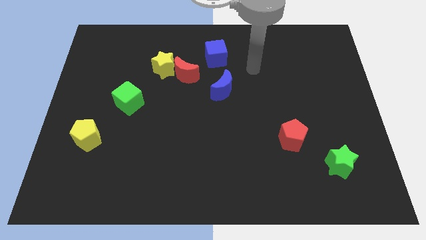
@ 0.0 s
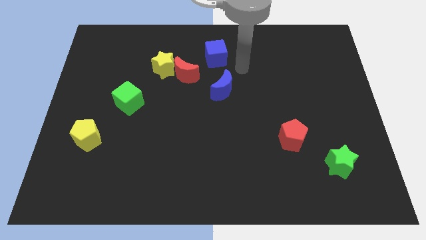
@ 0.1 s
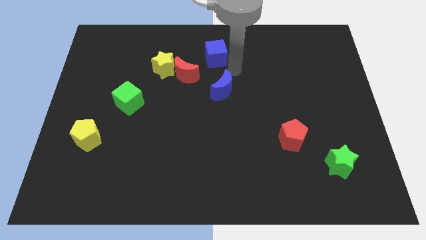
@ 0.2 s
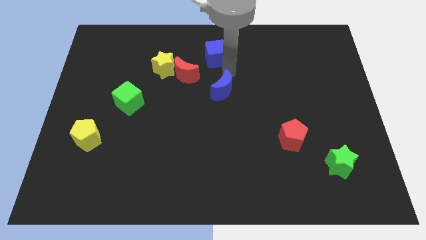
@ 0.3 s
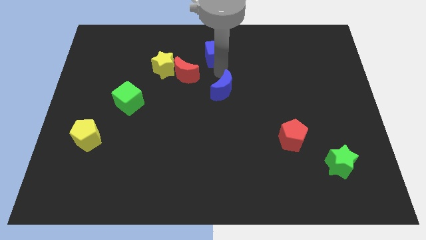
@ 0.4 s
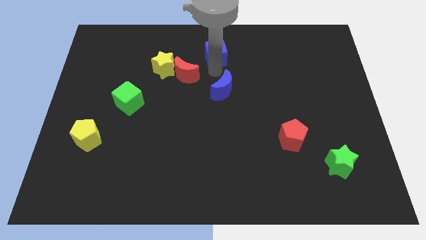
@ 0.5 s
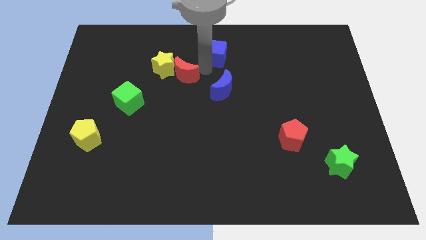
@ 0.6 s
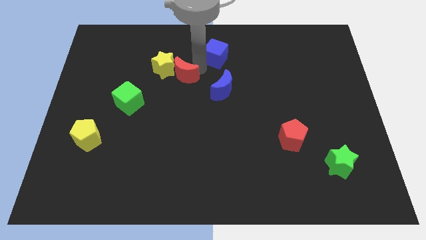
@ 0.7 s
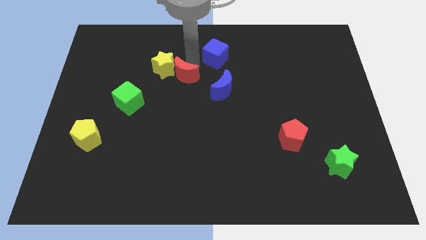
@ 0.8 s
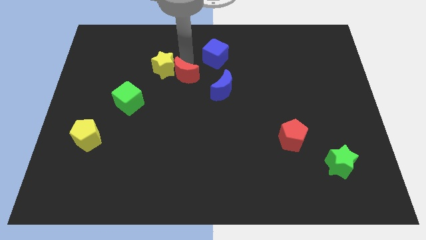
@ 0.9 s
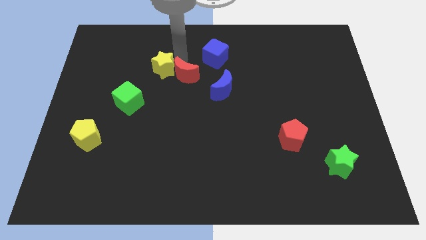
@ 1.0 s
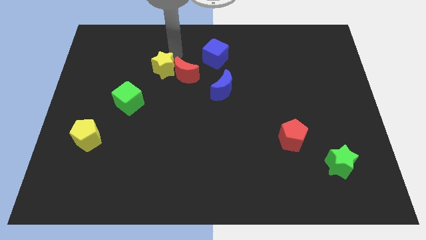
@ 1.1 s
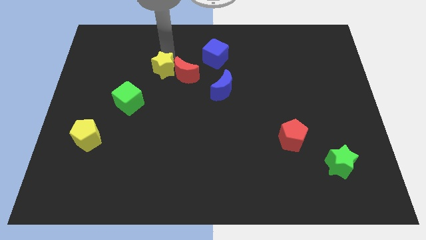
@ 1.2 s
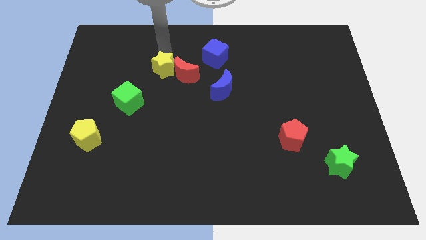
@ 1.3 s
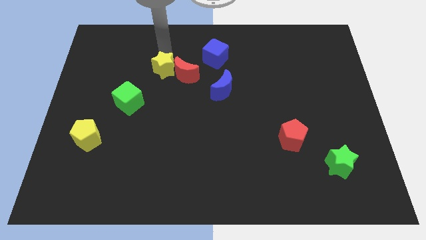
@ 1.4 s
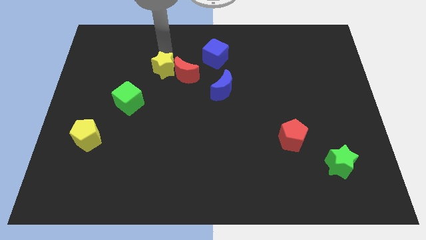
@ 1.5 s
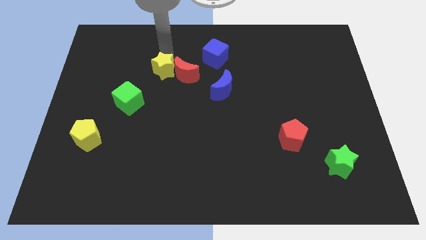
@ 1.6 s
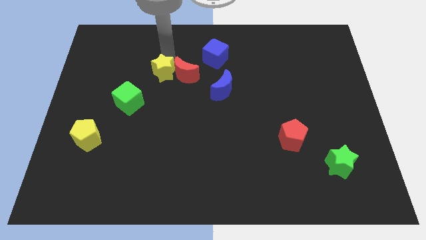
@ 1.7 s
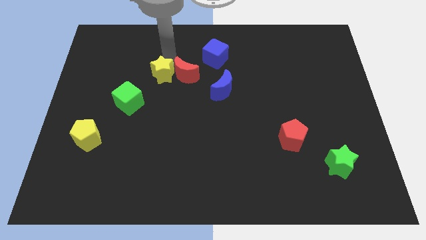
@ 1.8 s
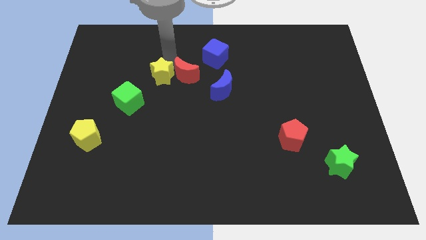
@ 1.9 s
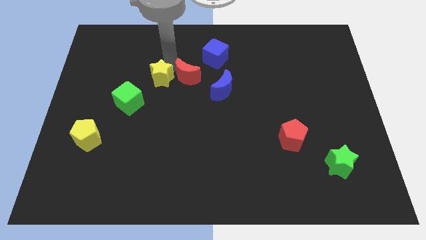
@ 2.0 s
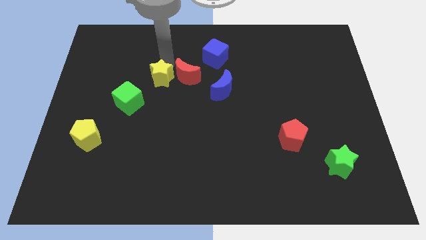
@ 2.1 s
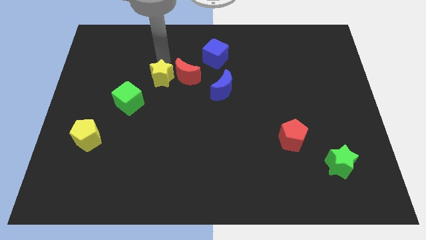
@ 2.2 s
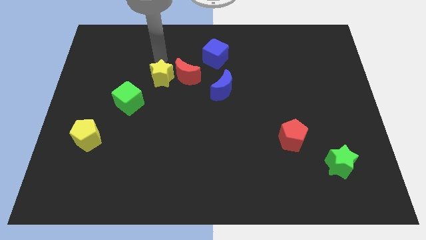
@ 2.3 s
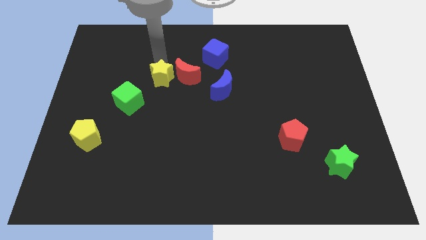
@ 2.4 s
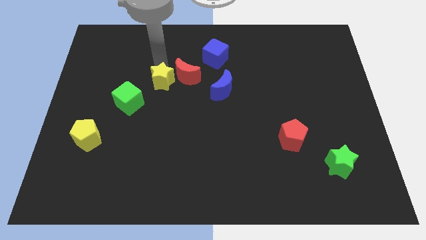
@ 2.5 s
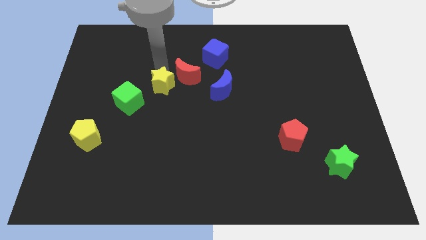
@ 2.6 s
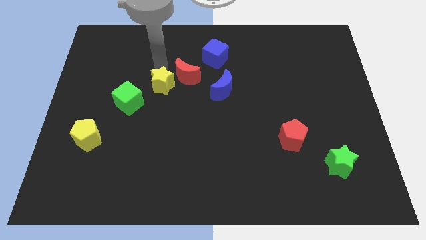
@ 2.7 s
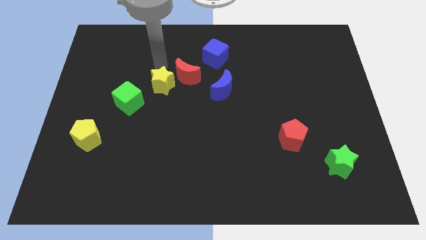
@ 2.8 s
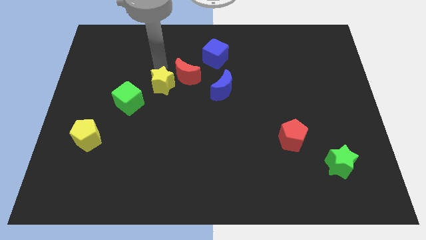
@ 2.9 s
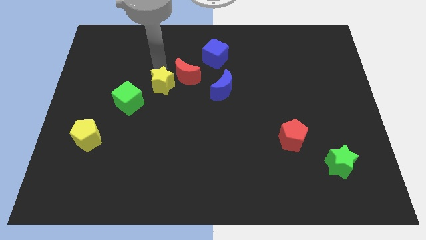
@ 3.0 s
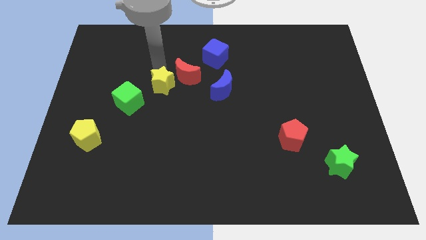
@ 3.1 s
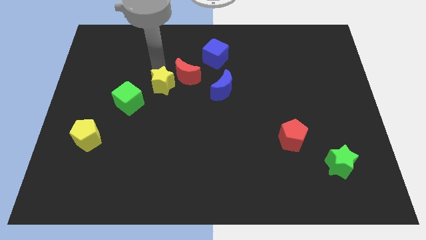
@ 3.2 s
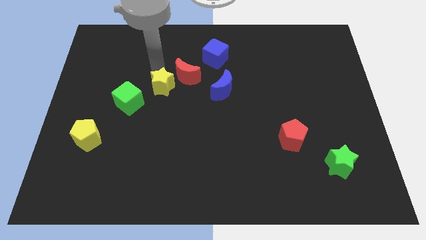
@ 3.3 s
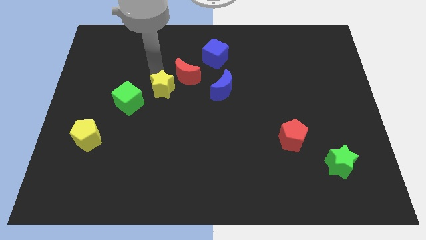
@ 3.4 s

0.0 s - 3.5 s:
slide the yellow star down a little

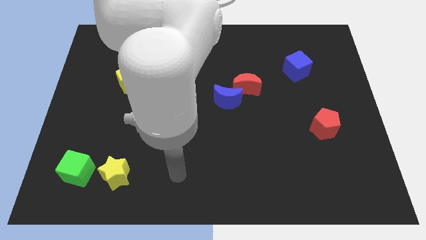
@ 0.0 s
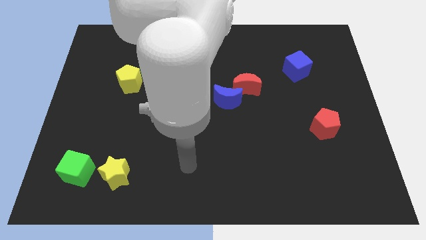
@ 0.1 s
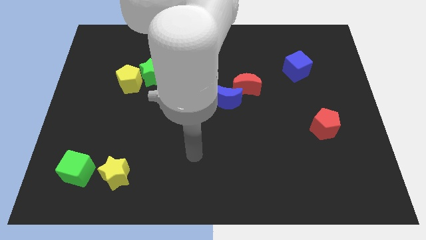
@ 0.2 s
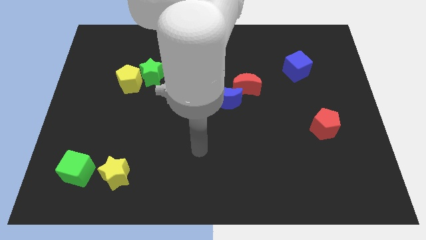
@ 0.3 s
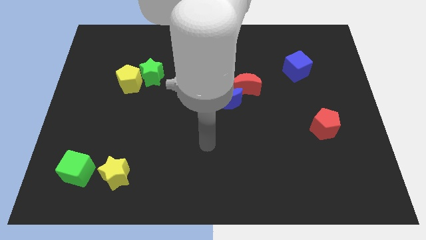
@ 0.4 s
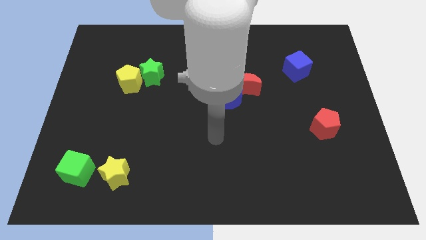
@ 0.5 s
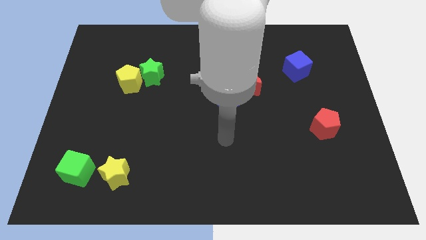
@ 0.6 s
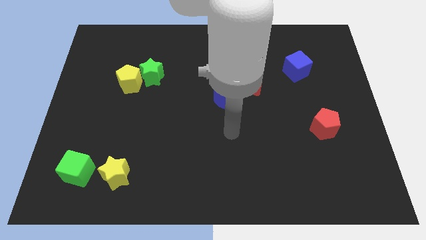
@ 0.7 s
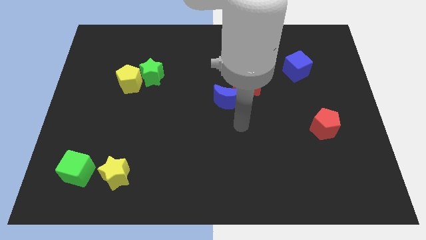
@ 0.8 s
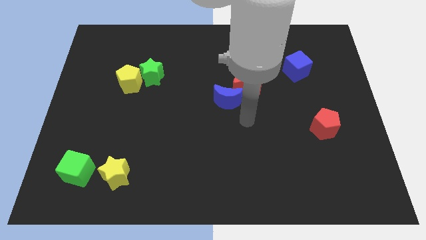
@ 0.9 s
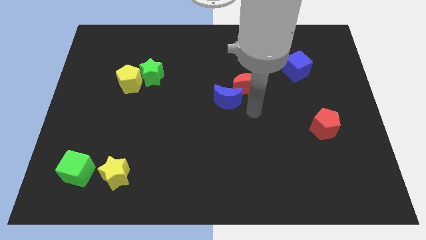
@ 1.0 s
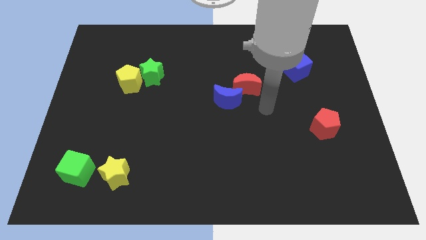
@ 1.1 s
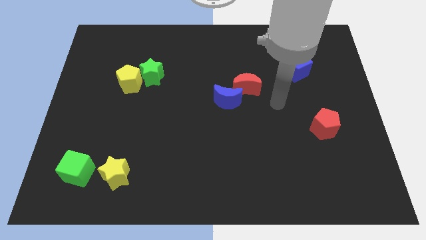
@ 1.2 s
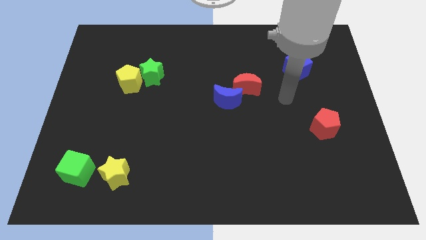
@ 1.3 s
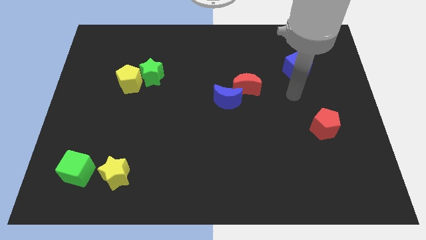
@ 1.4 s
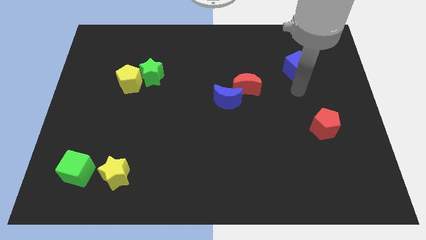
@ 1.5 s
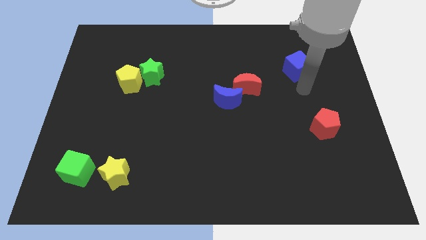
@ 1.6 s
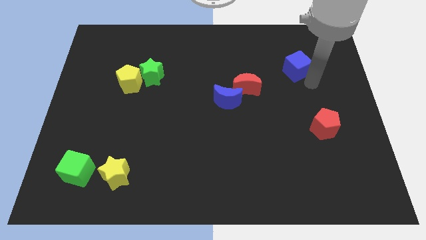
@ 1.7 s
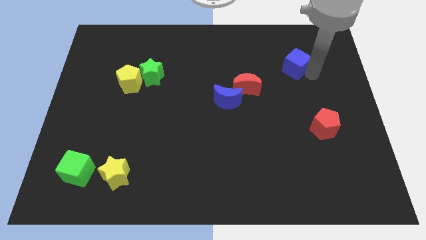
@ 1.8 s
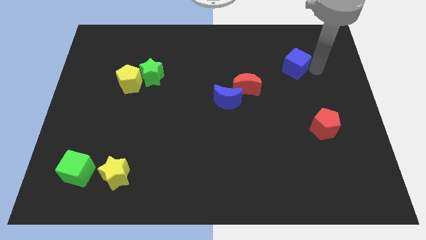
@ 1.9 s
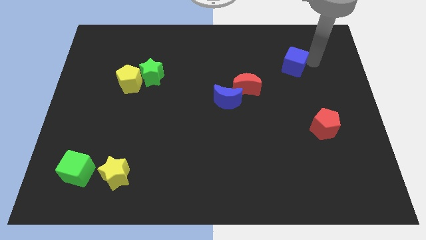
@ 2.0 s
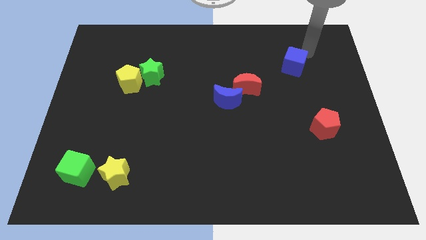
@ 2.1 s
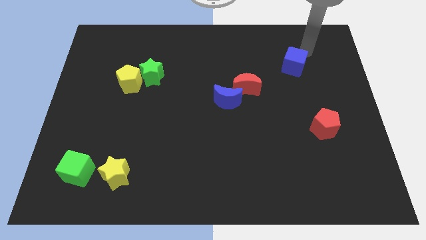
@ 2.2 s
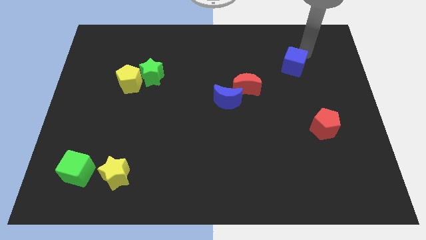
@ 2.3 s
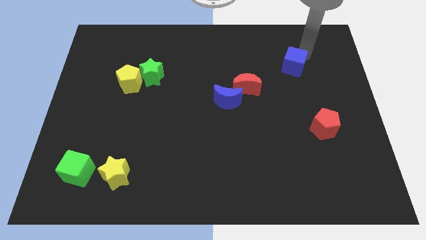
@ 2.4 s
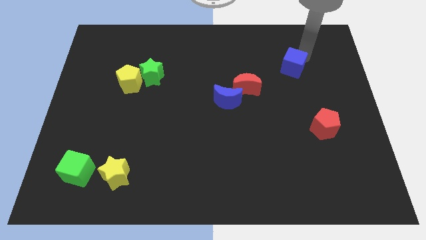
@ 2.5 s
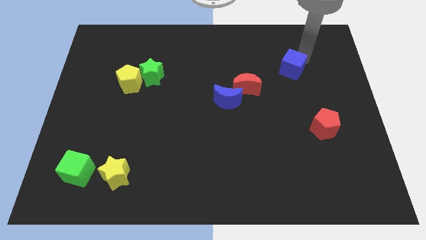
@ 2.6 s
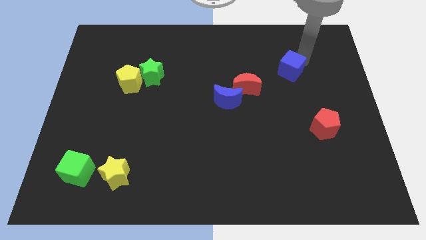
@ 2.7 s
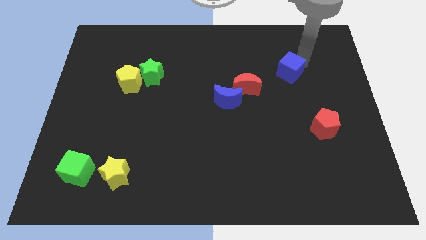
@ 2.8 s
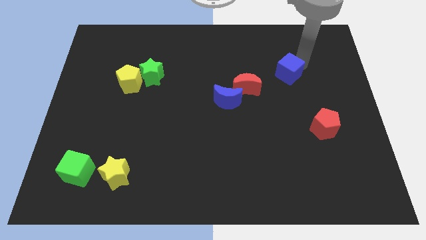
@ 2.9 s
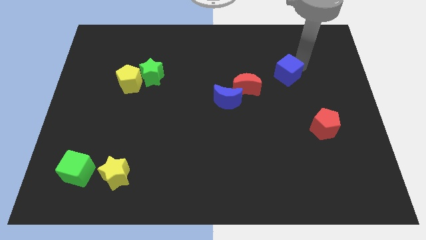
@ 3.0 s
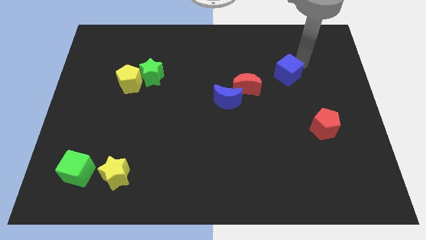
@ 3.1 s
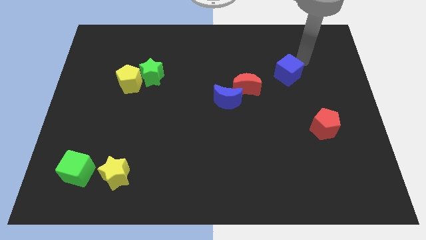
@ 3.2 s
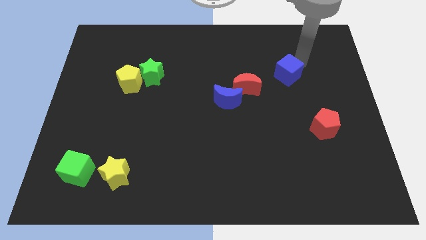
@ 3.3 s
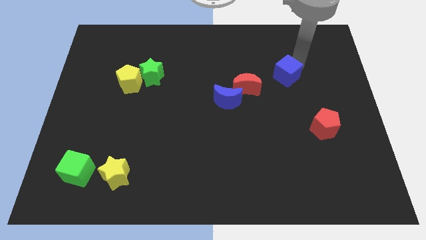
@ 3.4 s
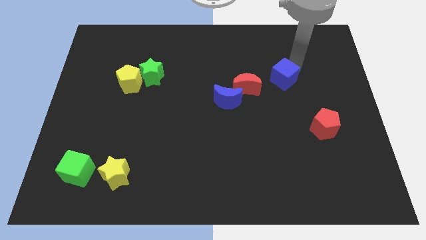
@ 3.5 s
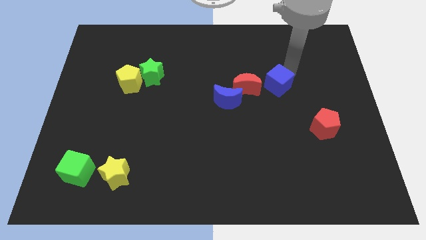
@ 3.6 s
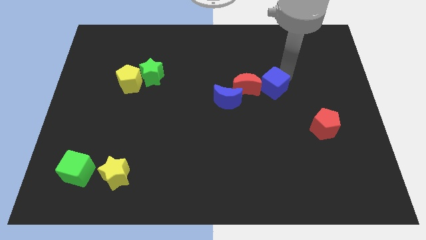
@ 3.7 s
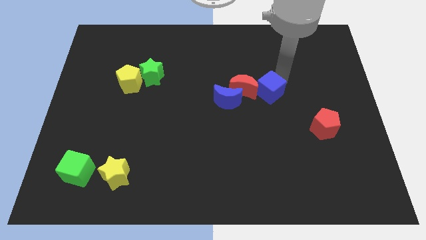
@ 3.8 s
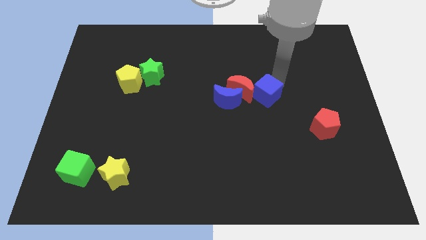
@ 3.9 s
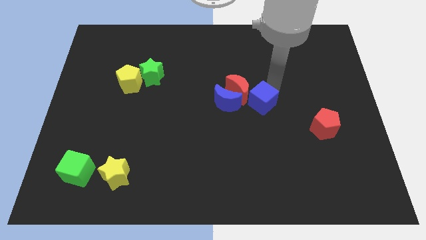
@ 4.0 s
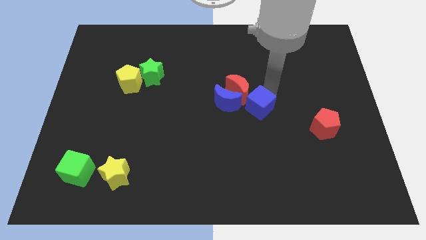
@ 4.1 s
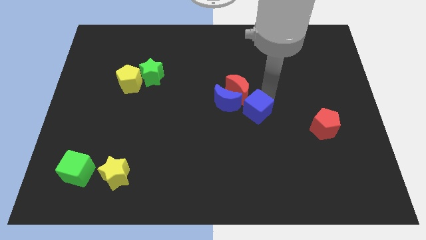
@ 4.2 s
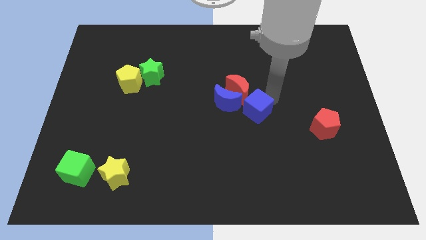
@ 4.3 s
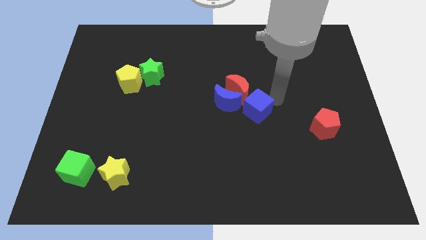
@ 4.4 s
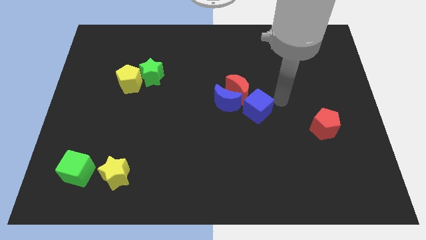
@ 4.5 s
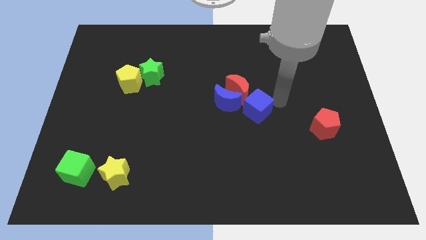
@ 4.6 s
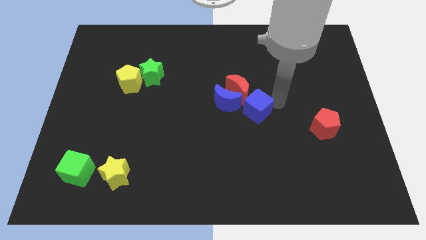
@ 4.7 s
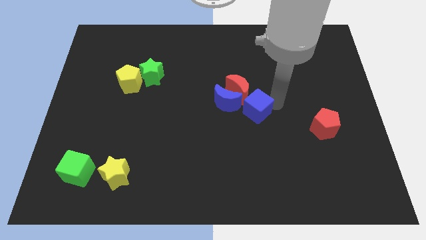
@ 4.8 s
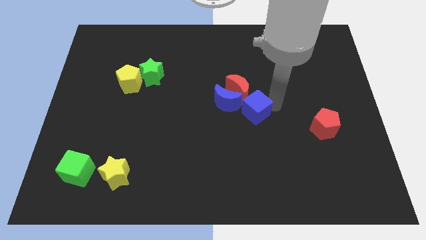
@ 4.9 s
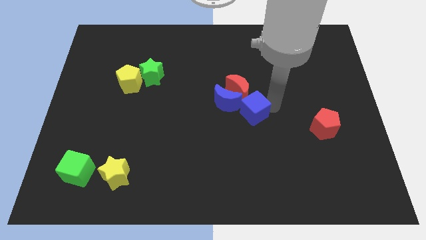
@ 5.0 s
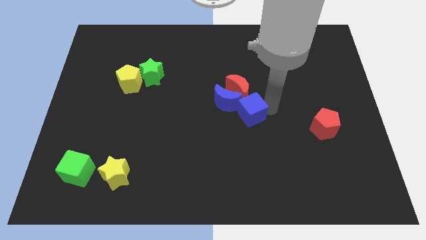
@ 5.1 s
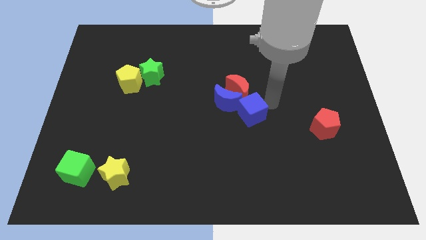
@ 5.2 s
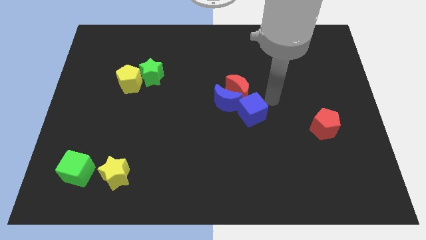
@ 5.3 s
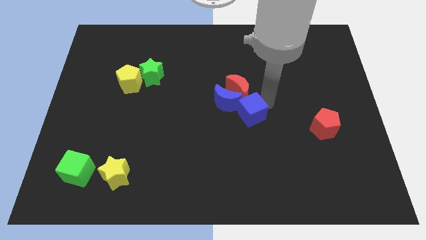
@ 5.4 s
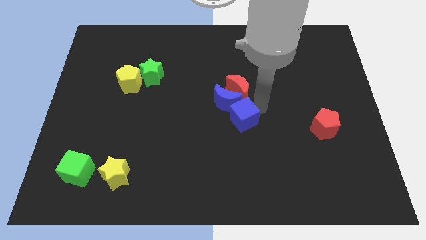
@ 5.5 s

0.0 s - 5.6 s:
move the blue cube downwards and to the left diagonally
